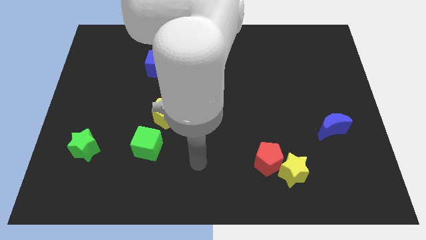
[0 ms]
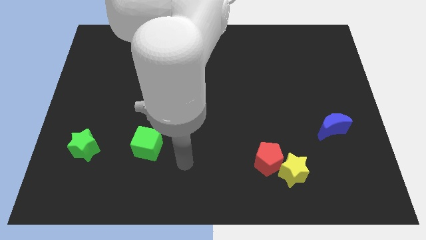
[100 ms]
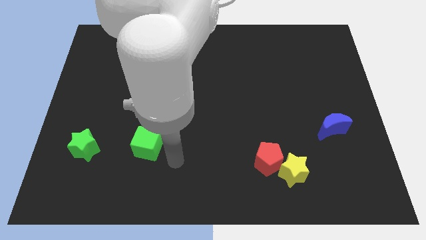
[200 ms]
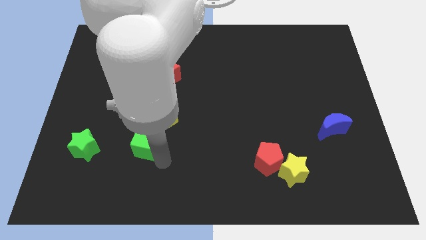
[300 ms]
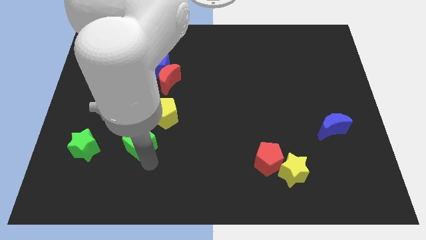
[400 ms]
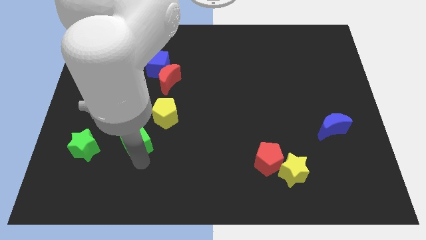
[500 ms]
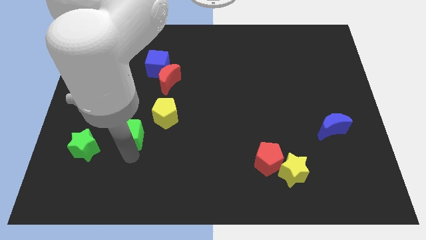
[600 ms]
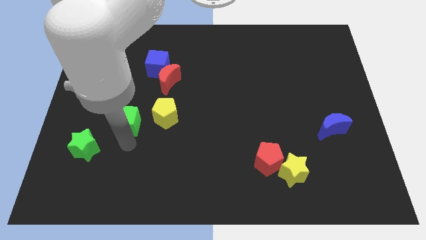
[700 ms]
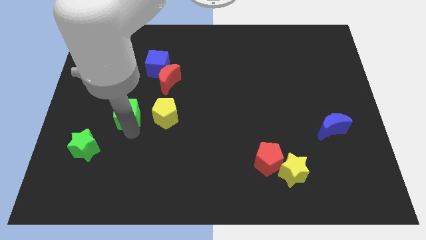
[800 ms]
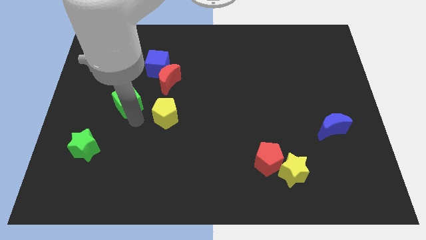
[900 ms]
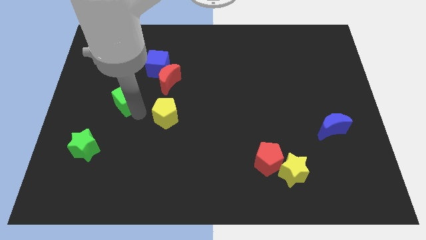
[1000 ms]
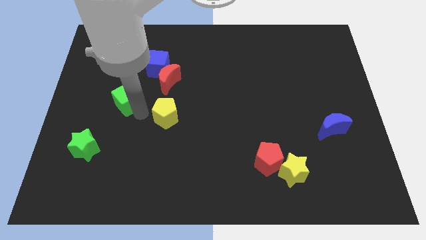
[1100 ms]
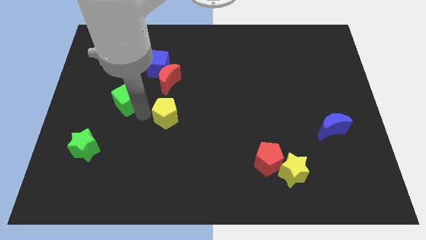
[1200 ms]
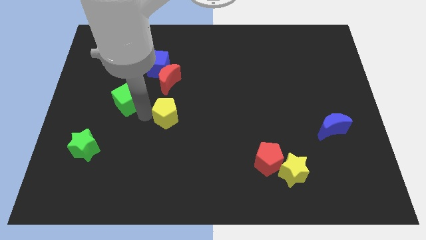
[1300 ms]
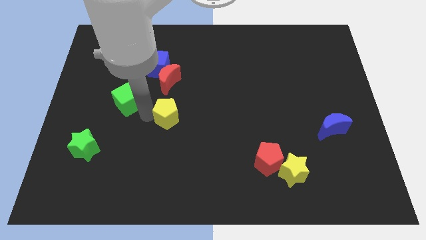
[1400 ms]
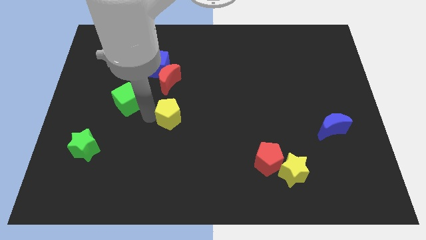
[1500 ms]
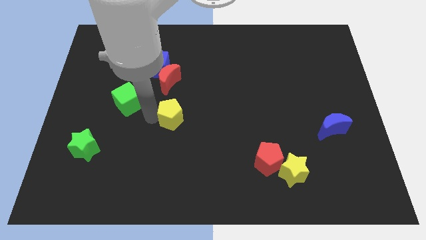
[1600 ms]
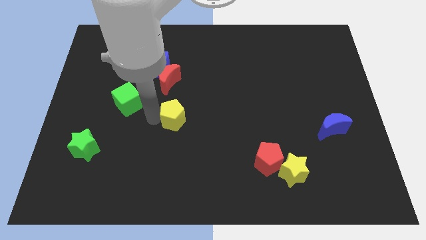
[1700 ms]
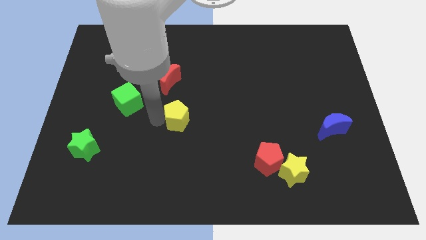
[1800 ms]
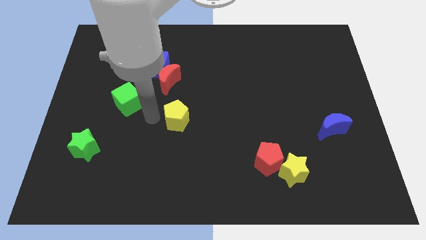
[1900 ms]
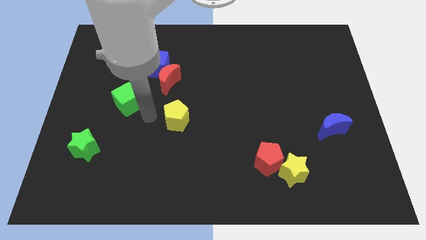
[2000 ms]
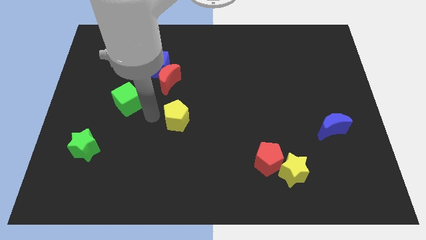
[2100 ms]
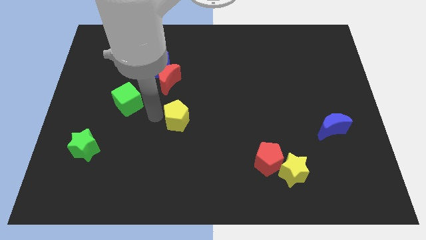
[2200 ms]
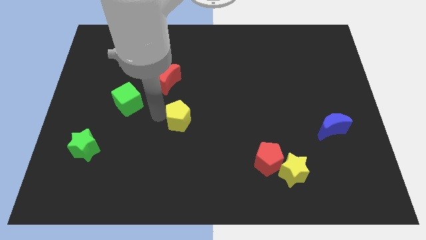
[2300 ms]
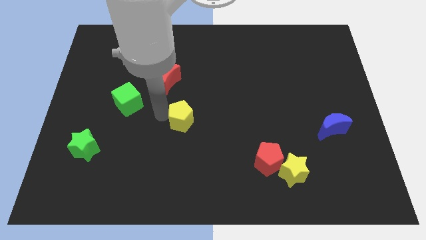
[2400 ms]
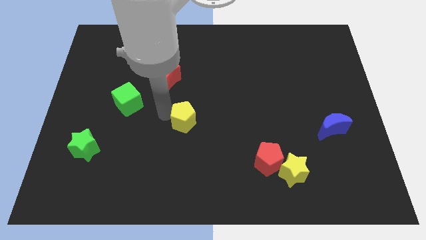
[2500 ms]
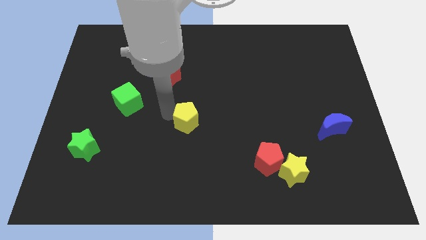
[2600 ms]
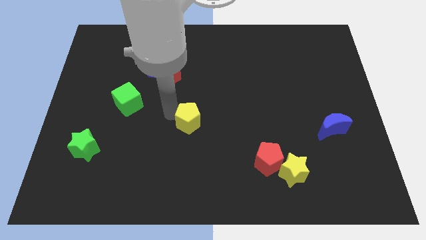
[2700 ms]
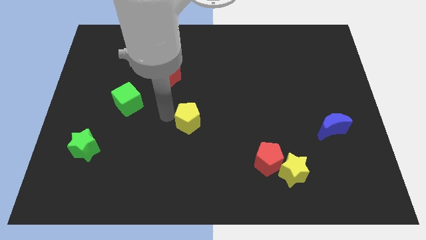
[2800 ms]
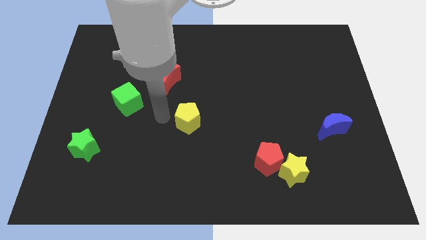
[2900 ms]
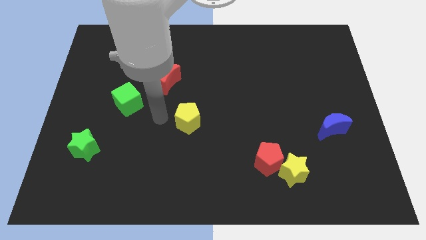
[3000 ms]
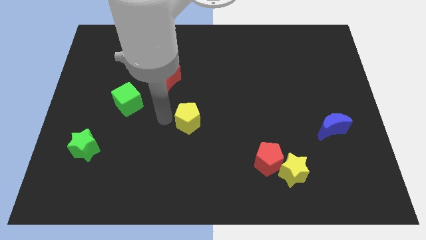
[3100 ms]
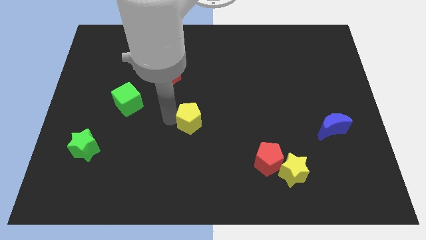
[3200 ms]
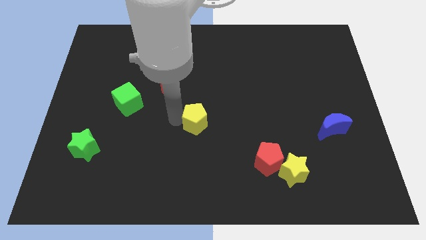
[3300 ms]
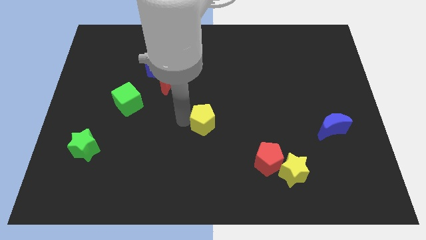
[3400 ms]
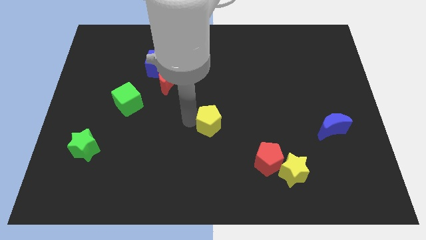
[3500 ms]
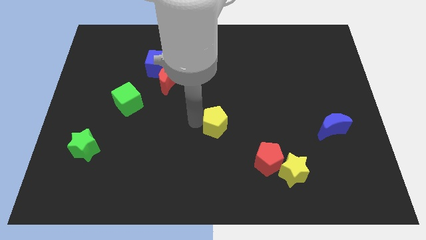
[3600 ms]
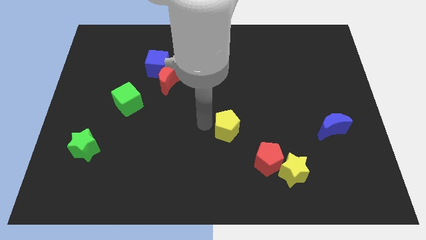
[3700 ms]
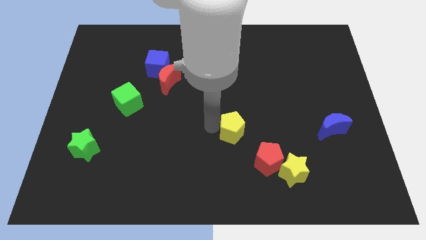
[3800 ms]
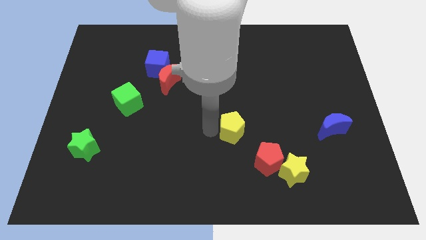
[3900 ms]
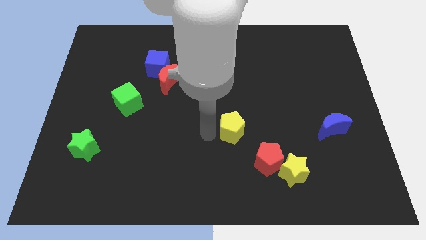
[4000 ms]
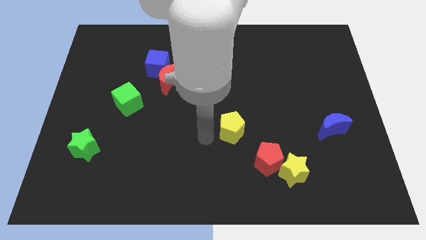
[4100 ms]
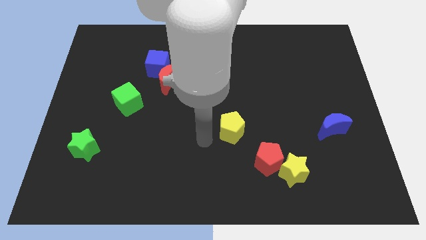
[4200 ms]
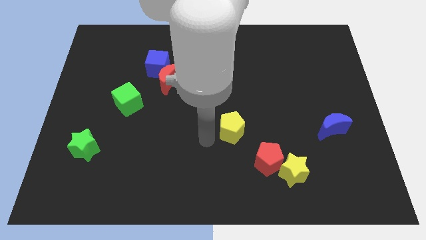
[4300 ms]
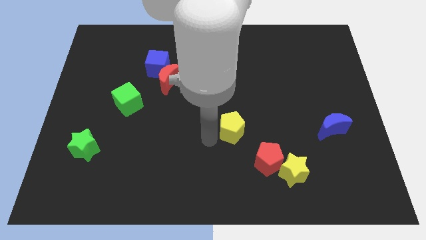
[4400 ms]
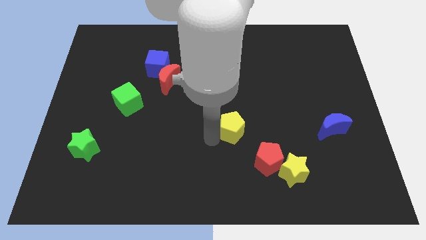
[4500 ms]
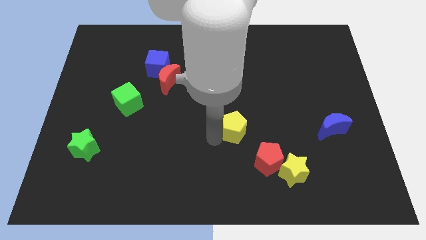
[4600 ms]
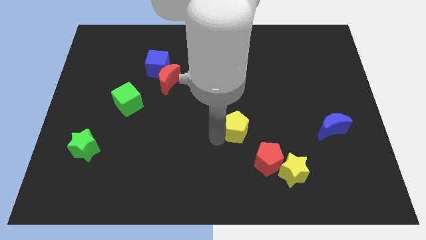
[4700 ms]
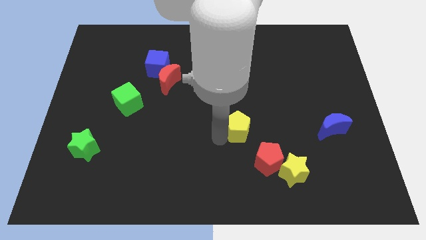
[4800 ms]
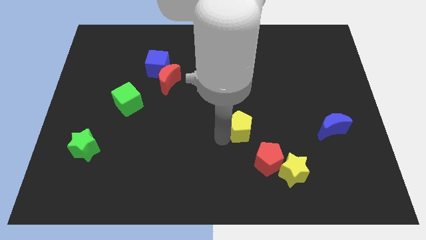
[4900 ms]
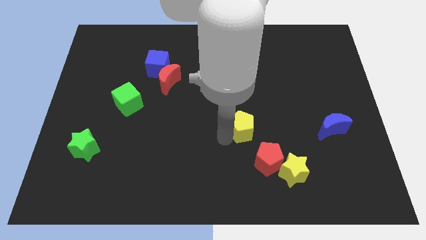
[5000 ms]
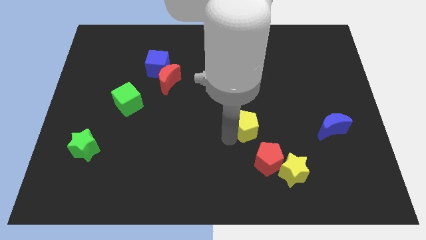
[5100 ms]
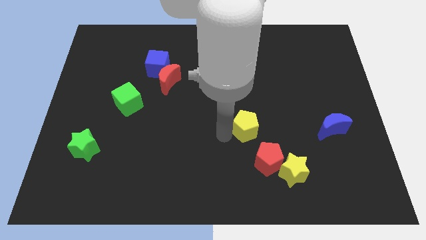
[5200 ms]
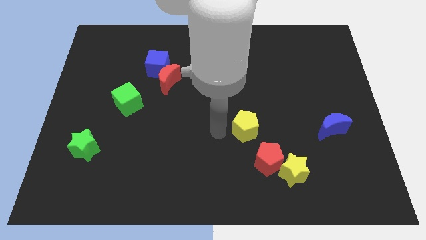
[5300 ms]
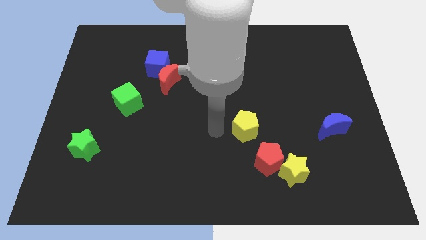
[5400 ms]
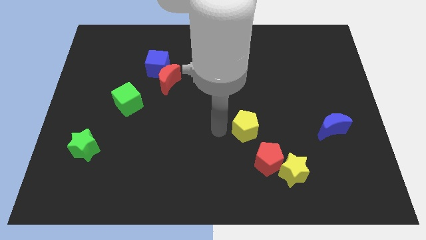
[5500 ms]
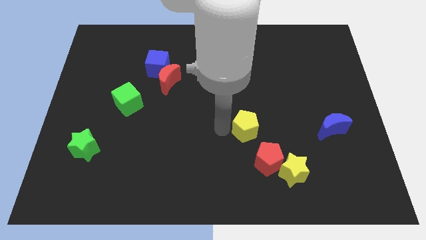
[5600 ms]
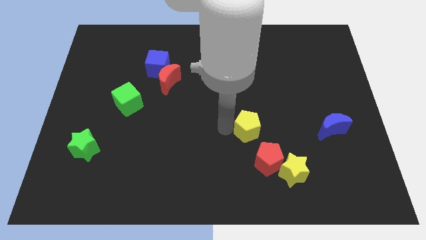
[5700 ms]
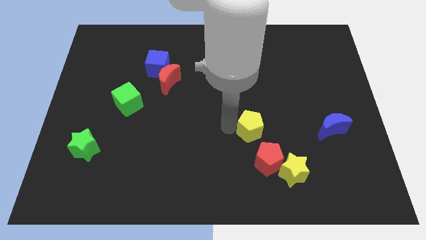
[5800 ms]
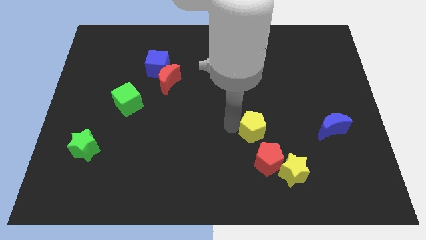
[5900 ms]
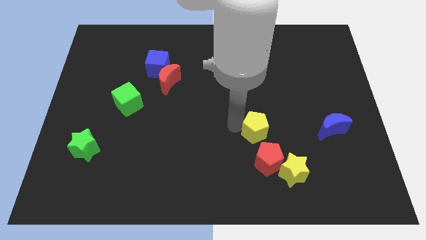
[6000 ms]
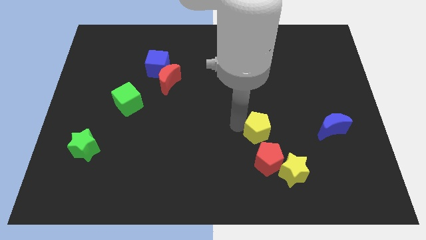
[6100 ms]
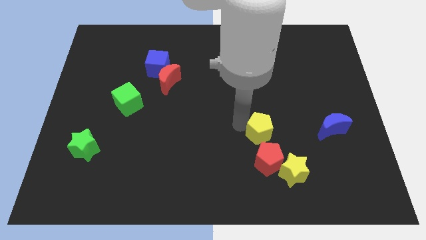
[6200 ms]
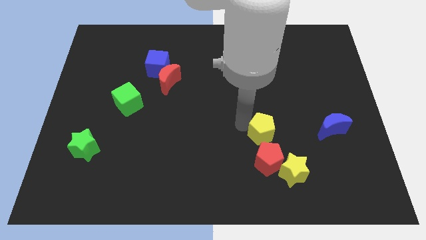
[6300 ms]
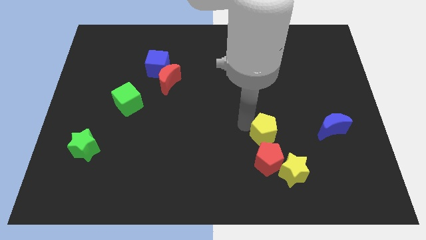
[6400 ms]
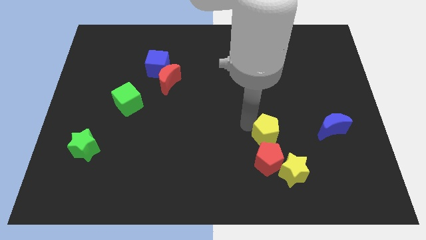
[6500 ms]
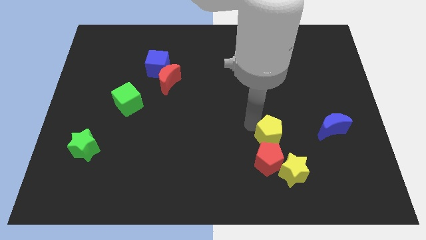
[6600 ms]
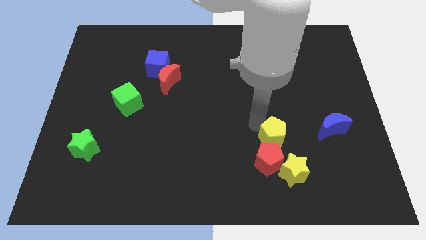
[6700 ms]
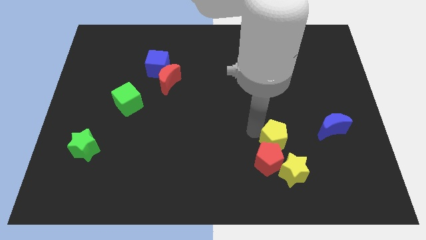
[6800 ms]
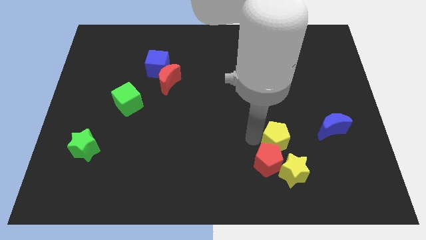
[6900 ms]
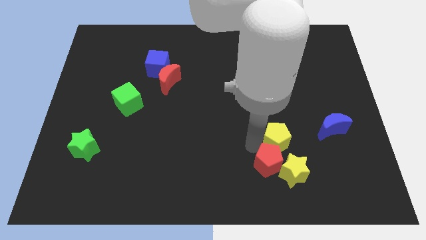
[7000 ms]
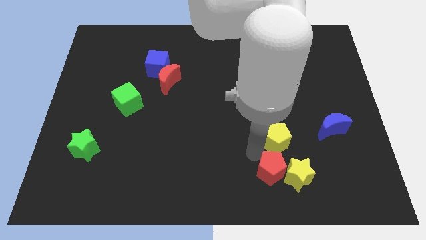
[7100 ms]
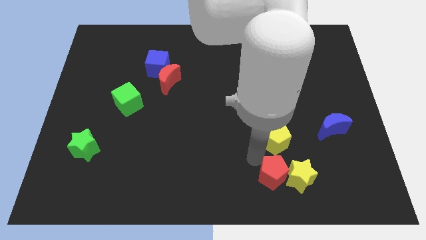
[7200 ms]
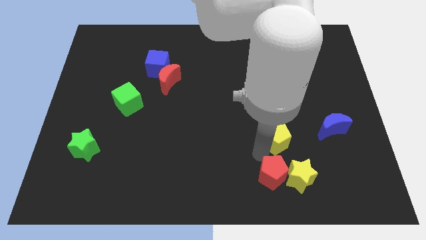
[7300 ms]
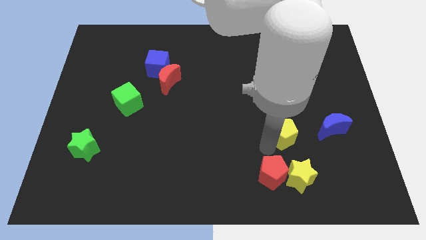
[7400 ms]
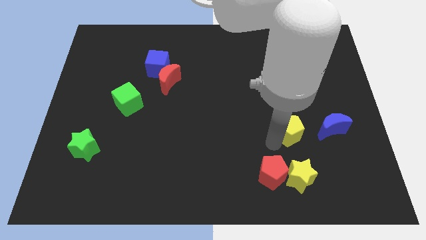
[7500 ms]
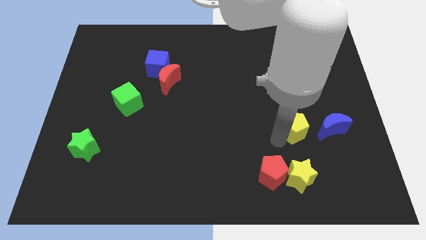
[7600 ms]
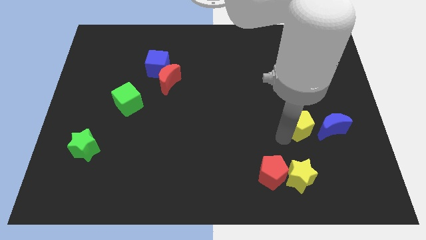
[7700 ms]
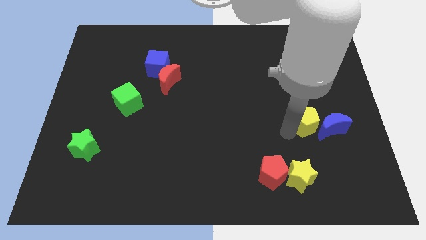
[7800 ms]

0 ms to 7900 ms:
push the yellow pentagon close to the blue moon
